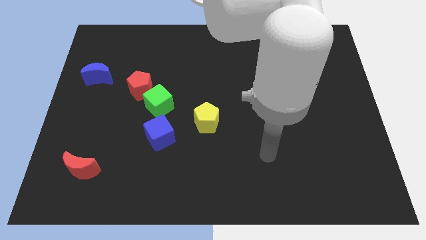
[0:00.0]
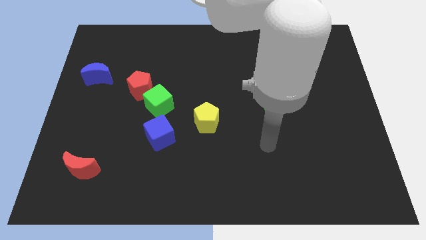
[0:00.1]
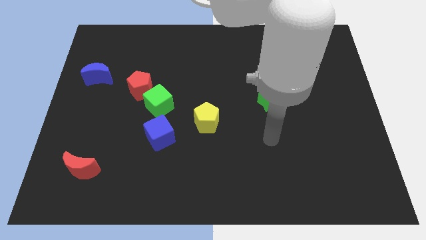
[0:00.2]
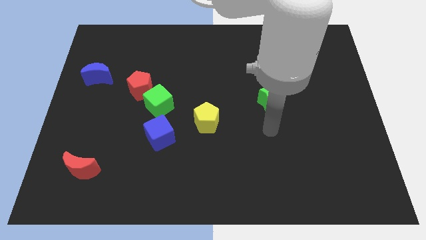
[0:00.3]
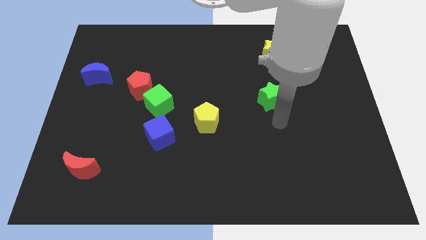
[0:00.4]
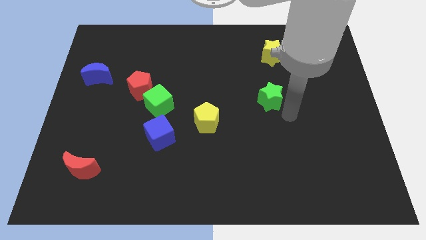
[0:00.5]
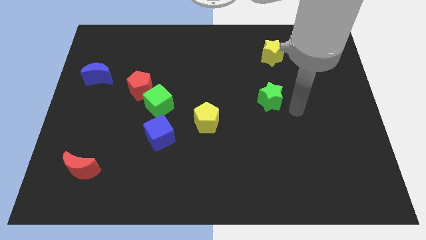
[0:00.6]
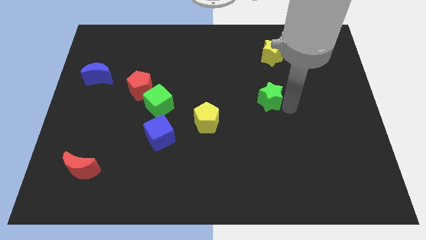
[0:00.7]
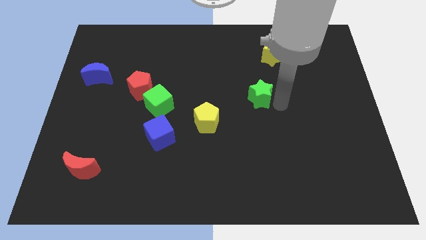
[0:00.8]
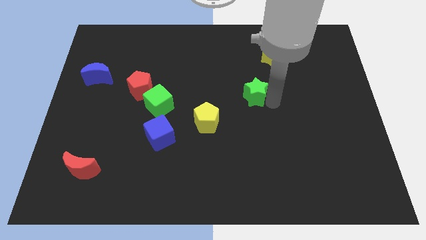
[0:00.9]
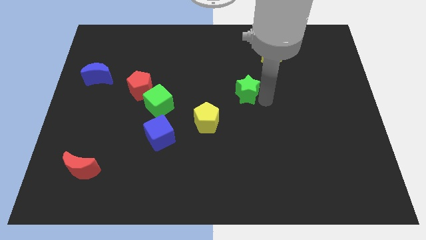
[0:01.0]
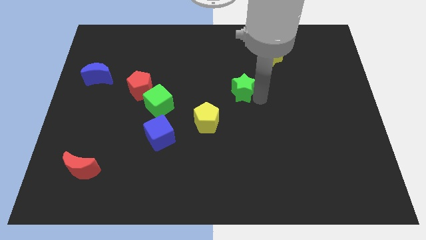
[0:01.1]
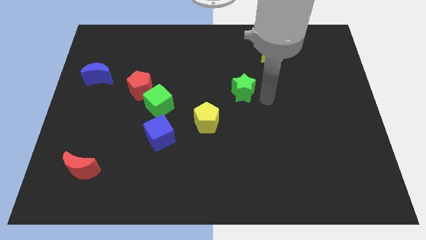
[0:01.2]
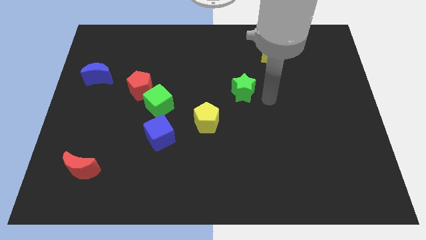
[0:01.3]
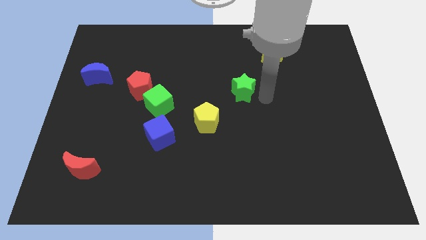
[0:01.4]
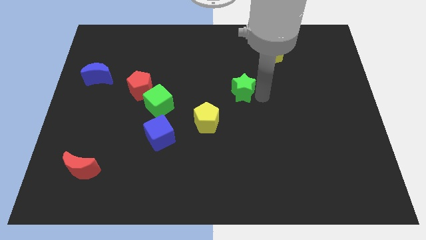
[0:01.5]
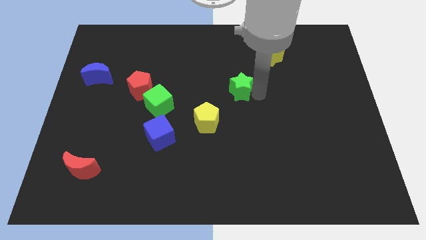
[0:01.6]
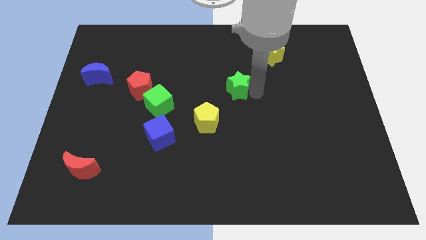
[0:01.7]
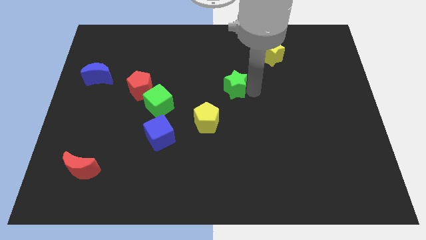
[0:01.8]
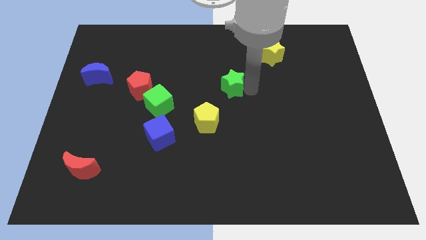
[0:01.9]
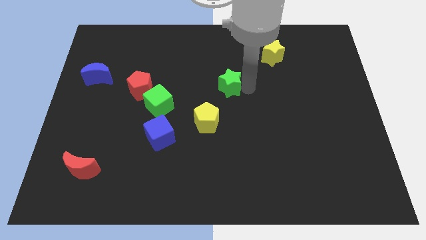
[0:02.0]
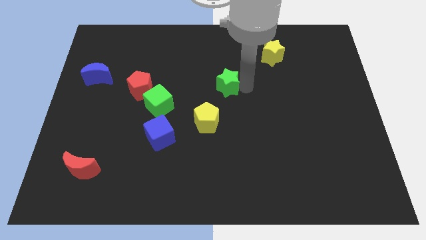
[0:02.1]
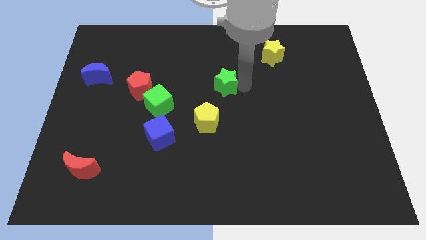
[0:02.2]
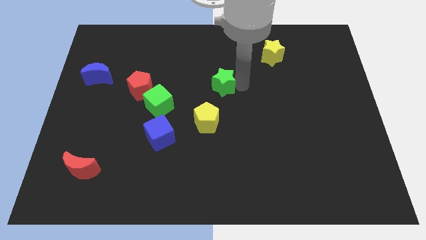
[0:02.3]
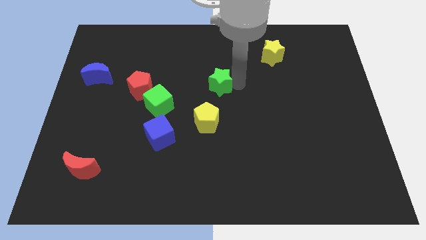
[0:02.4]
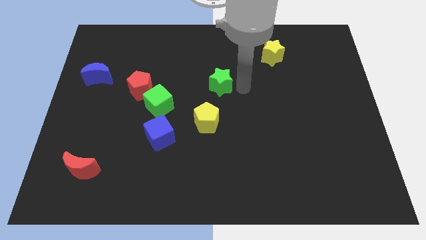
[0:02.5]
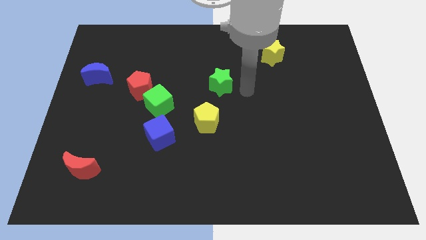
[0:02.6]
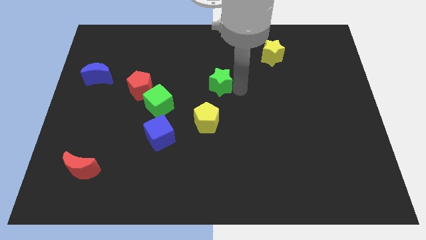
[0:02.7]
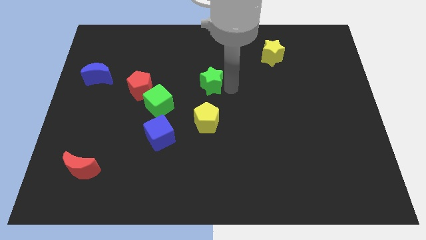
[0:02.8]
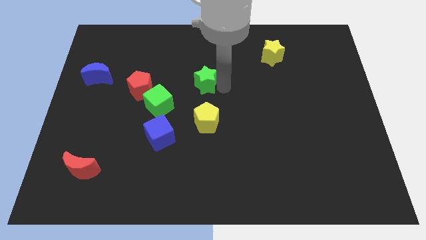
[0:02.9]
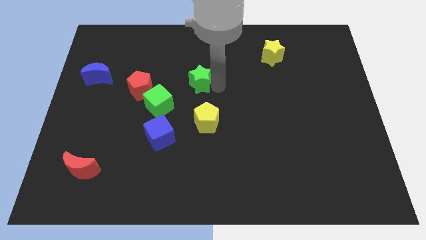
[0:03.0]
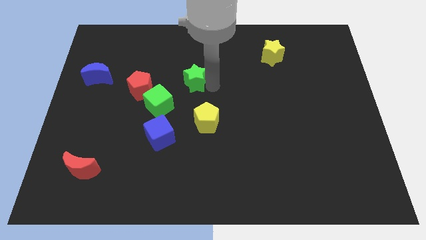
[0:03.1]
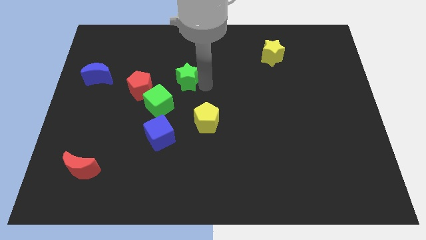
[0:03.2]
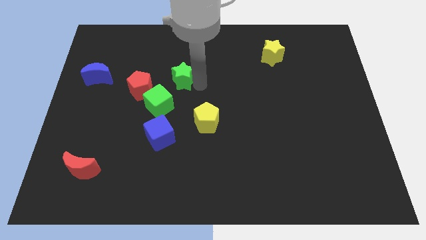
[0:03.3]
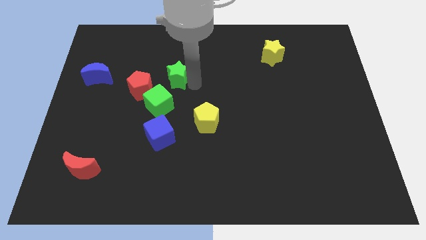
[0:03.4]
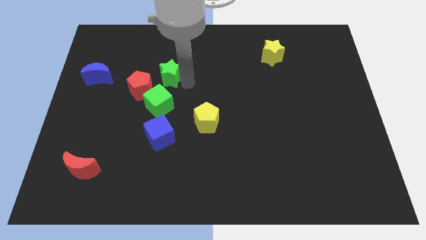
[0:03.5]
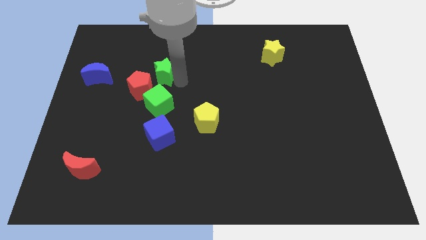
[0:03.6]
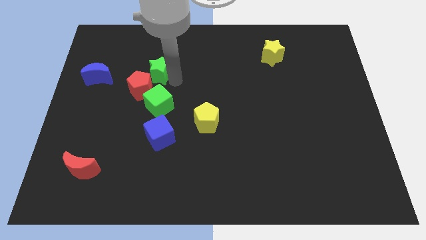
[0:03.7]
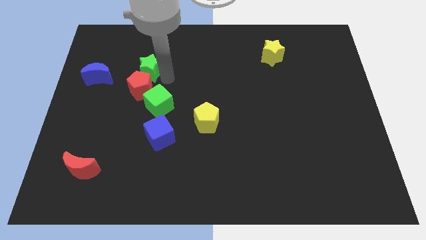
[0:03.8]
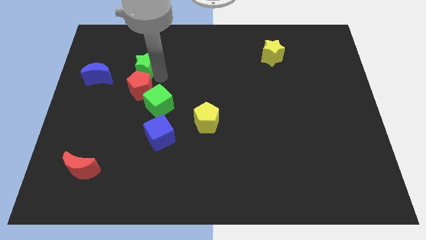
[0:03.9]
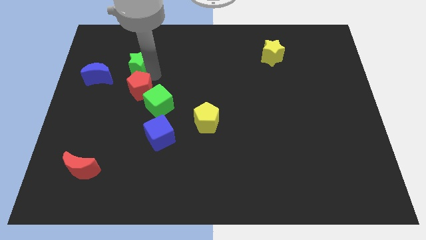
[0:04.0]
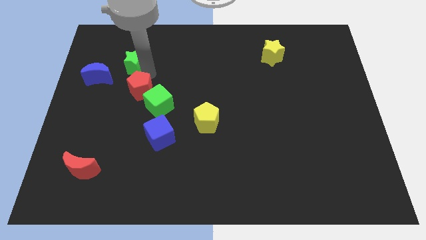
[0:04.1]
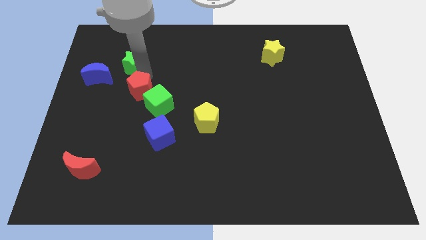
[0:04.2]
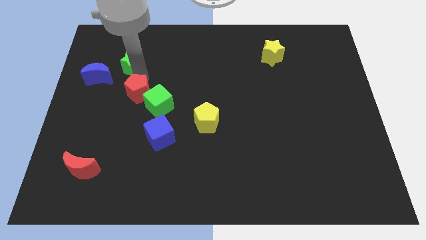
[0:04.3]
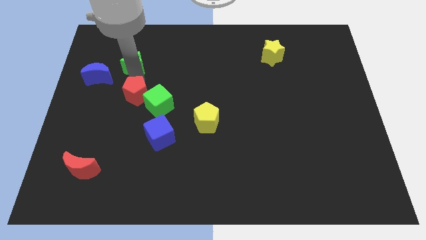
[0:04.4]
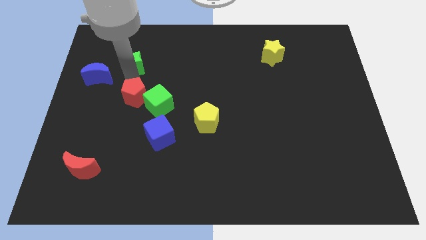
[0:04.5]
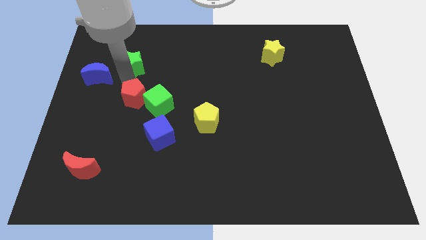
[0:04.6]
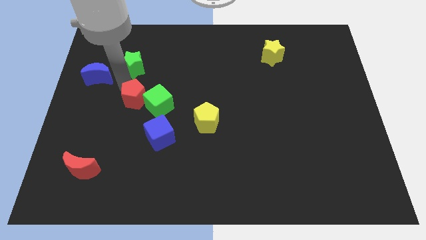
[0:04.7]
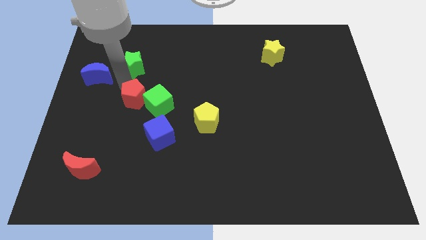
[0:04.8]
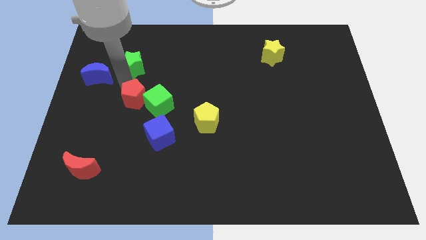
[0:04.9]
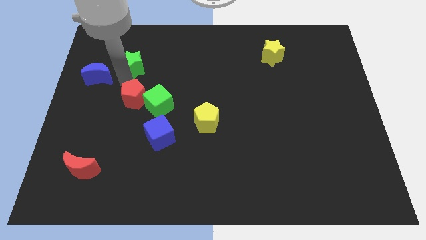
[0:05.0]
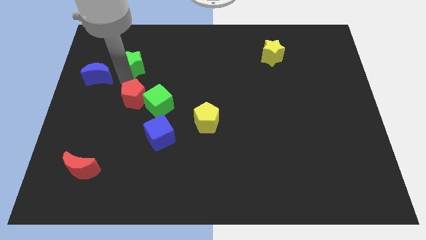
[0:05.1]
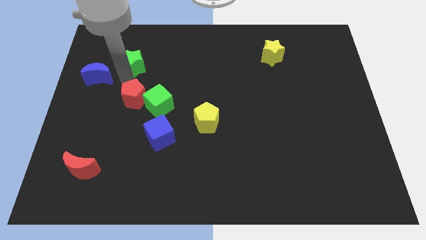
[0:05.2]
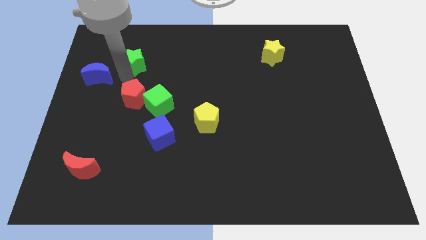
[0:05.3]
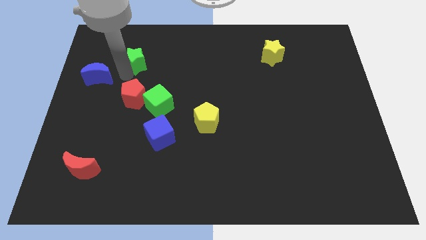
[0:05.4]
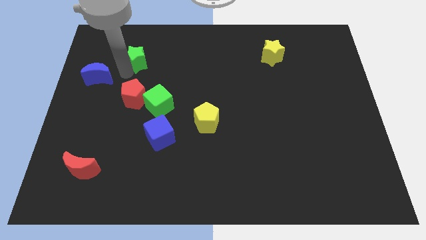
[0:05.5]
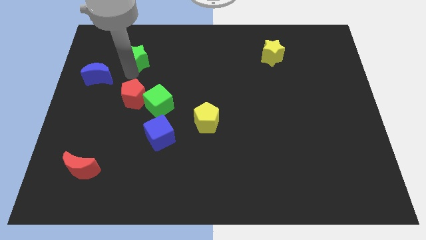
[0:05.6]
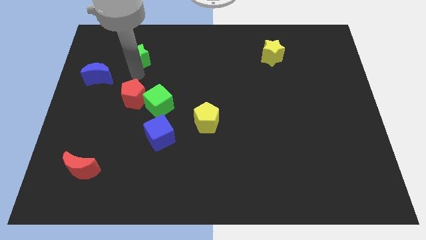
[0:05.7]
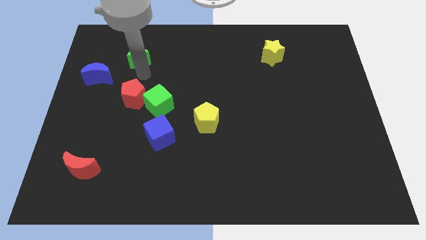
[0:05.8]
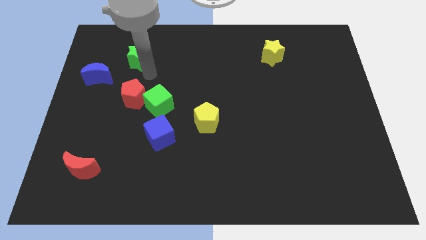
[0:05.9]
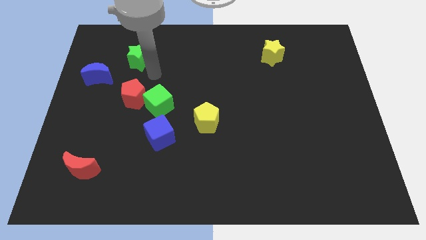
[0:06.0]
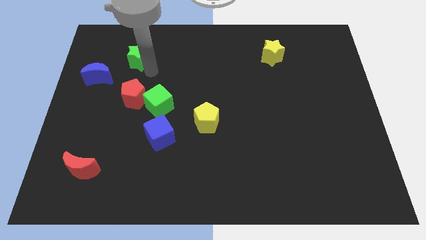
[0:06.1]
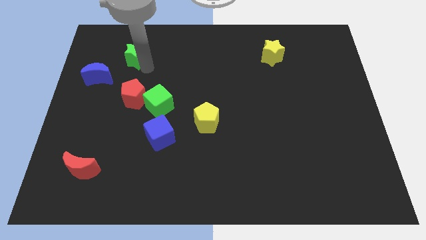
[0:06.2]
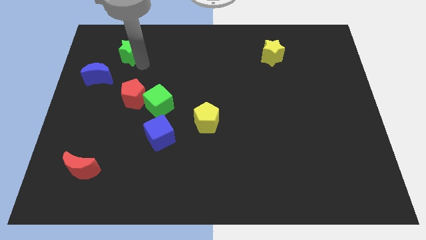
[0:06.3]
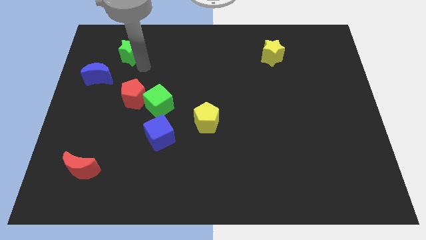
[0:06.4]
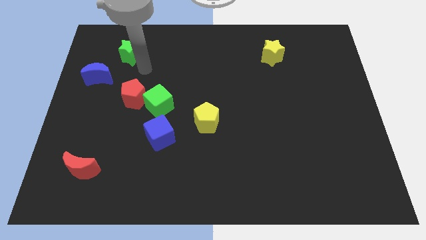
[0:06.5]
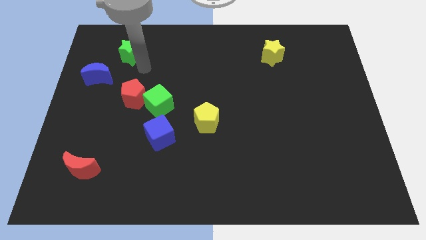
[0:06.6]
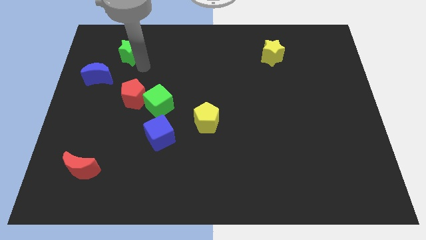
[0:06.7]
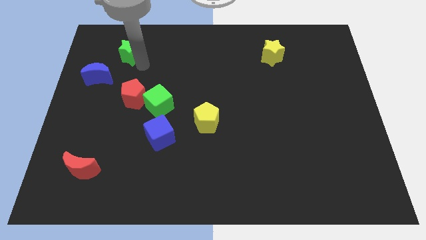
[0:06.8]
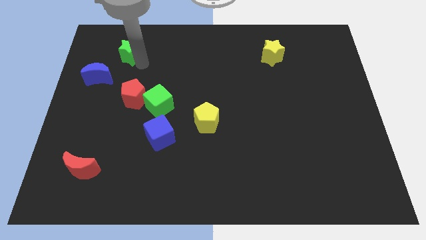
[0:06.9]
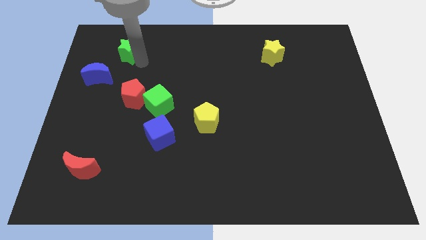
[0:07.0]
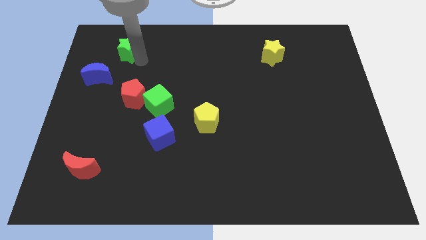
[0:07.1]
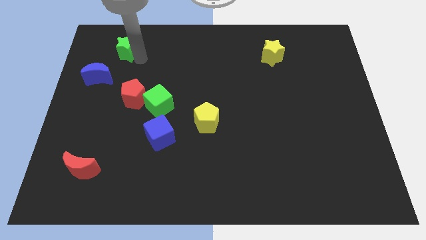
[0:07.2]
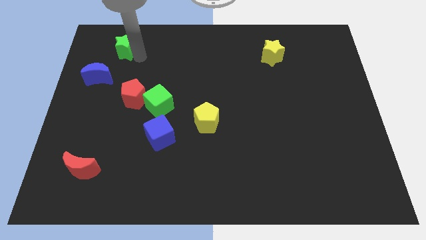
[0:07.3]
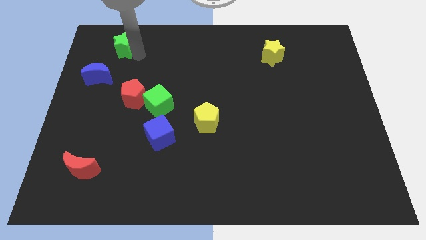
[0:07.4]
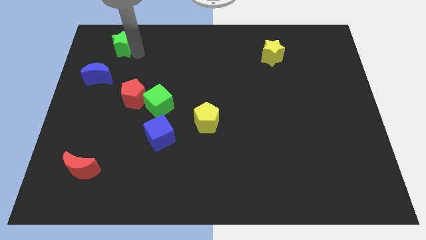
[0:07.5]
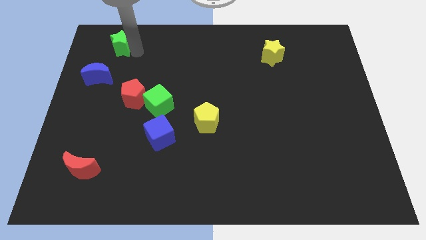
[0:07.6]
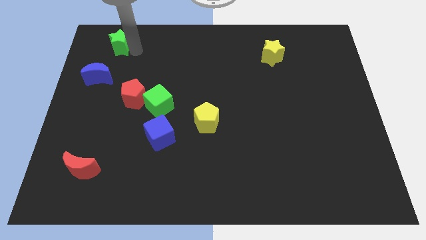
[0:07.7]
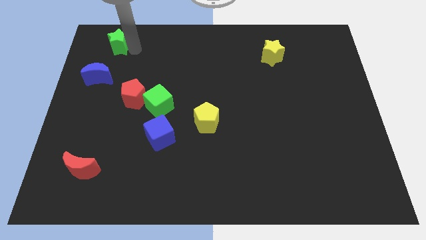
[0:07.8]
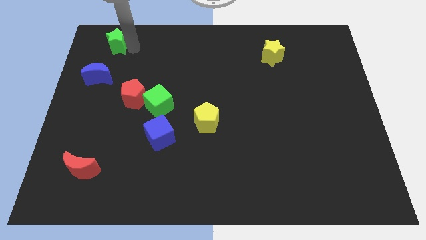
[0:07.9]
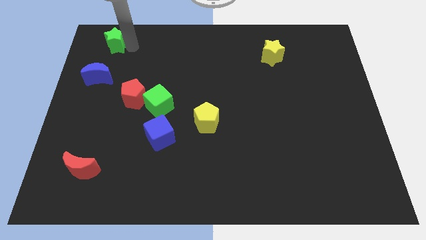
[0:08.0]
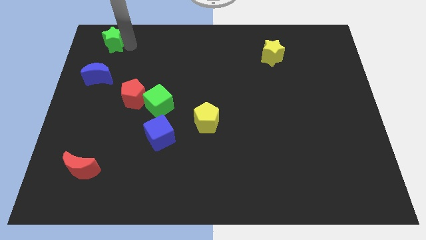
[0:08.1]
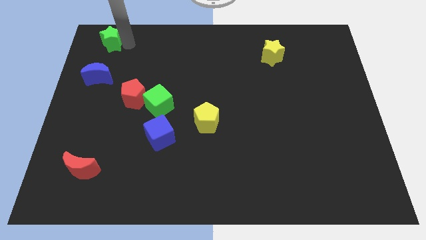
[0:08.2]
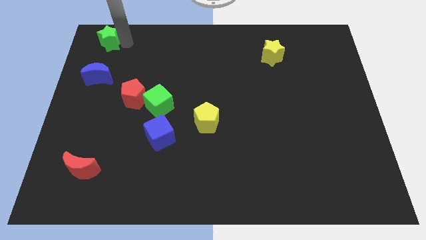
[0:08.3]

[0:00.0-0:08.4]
put the green star to the upper left corner
